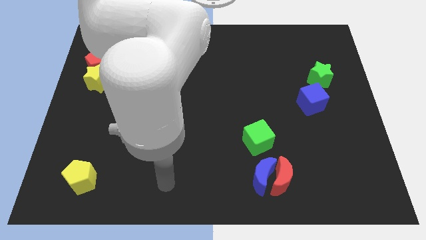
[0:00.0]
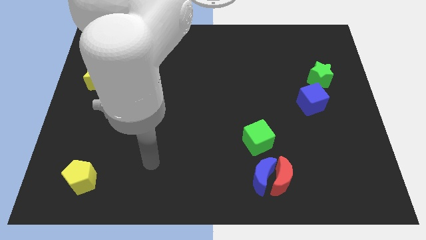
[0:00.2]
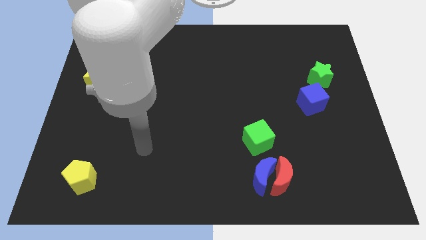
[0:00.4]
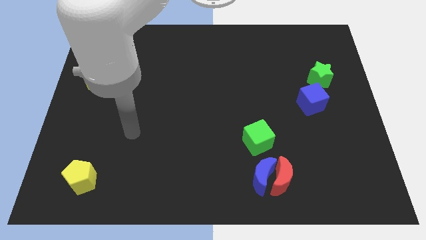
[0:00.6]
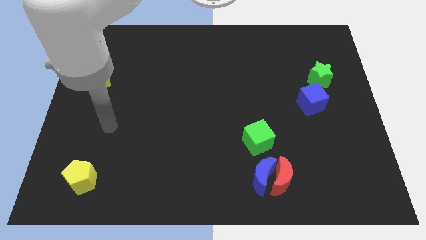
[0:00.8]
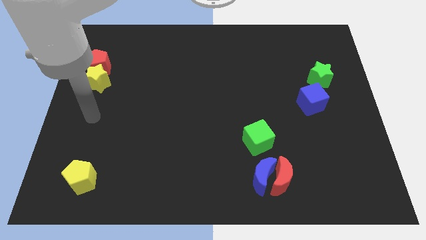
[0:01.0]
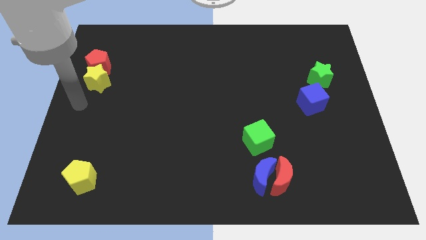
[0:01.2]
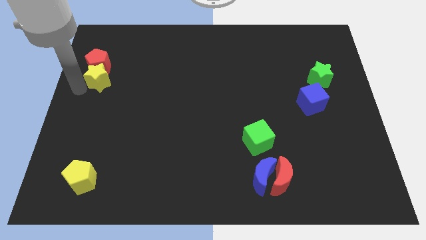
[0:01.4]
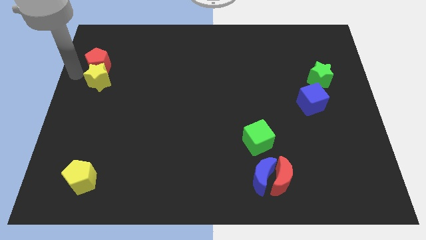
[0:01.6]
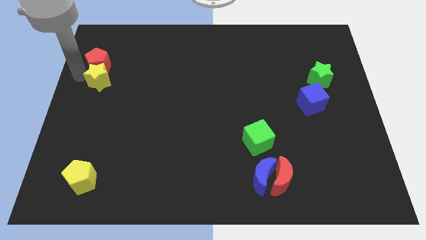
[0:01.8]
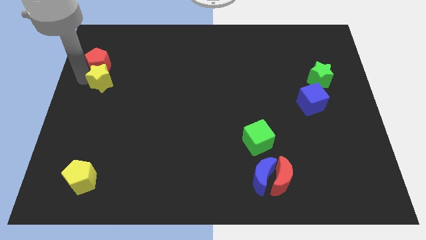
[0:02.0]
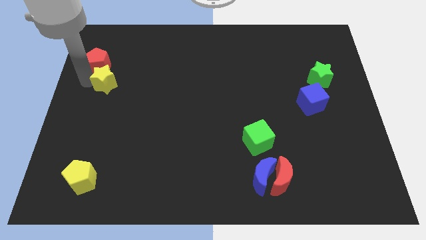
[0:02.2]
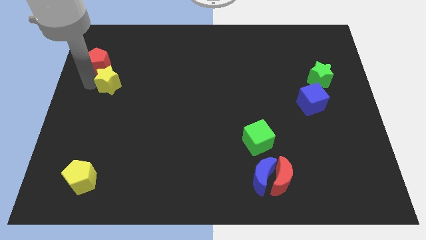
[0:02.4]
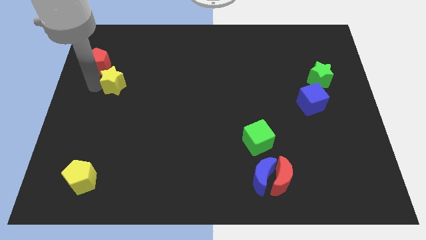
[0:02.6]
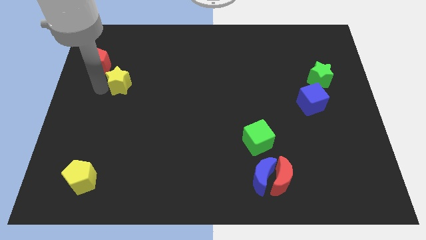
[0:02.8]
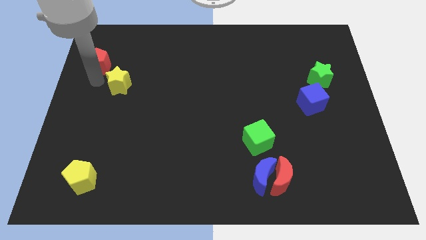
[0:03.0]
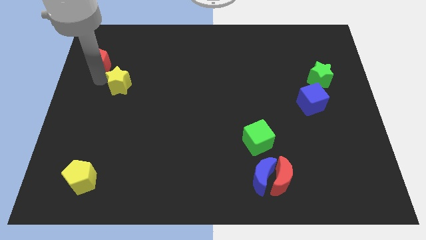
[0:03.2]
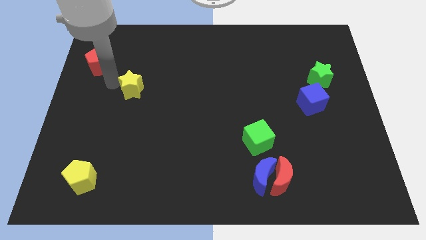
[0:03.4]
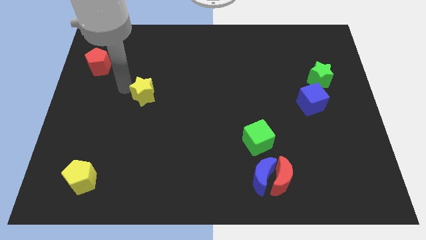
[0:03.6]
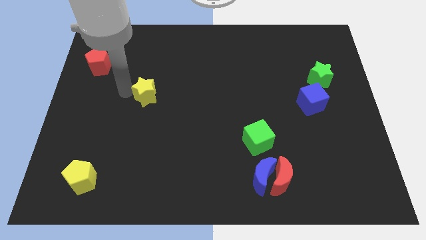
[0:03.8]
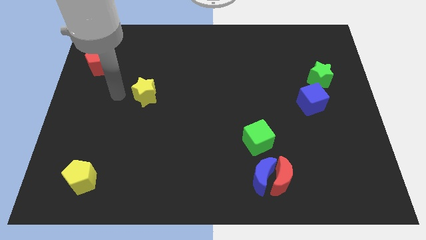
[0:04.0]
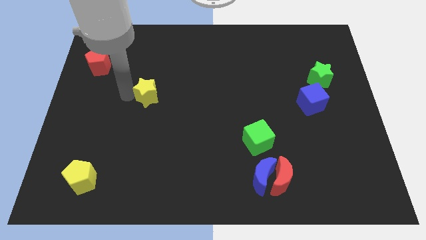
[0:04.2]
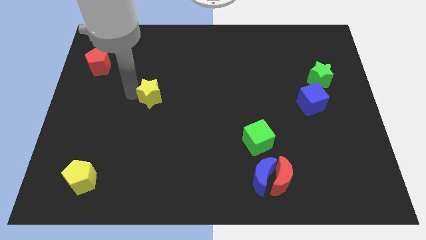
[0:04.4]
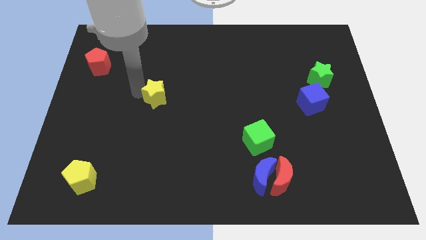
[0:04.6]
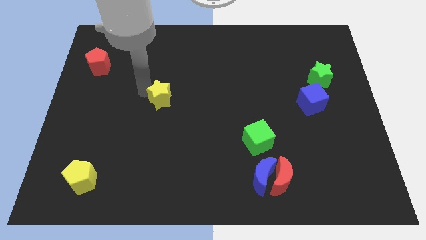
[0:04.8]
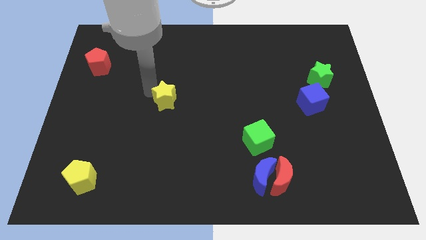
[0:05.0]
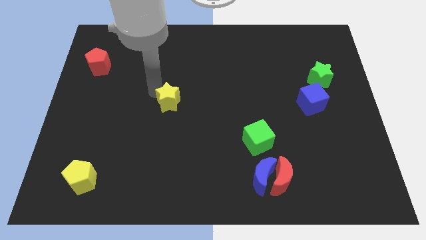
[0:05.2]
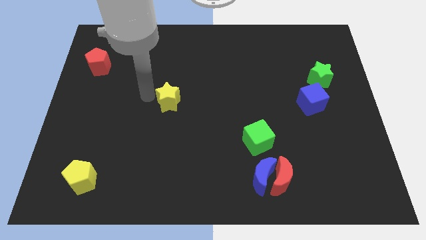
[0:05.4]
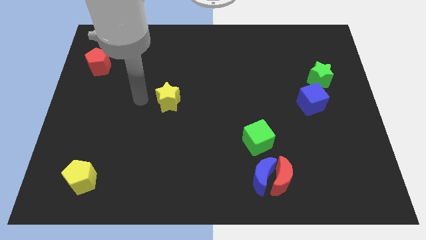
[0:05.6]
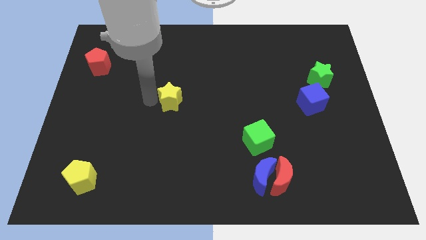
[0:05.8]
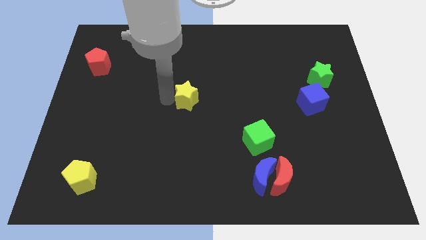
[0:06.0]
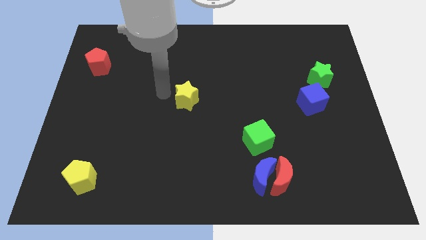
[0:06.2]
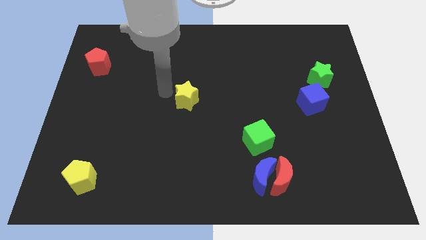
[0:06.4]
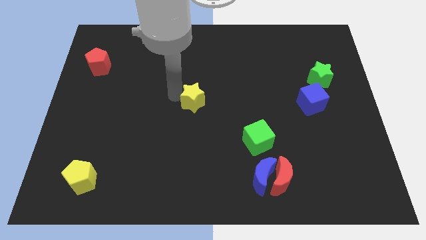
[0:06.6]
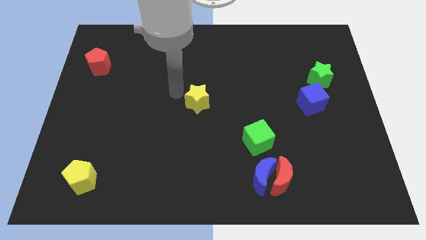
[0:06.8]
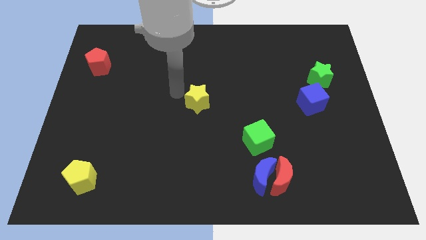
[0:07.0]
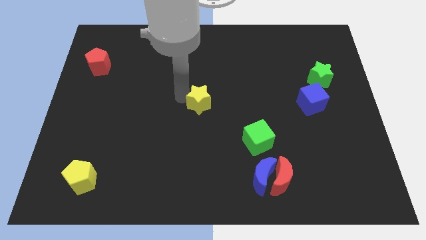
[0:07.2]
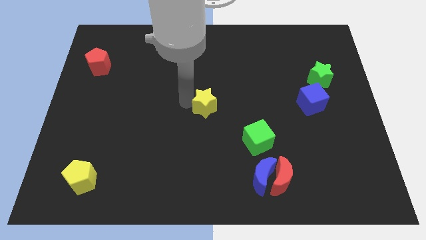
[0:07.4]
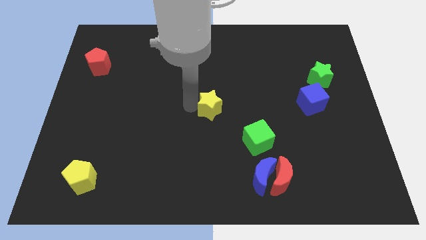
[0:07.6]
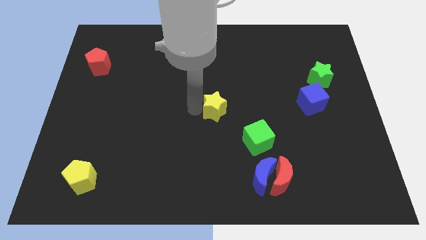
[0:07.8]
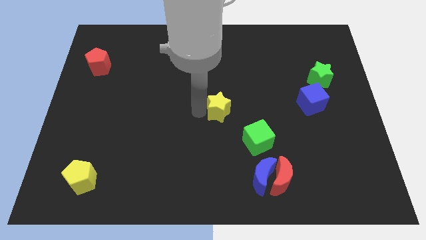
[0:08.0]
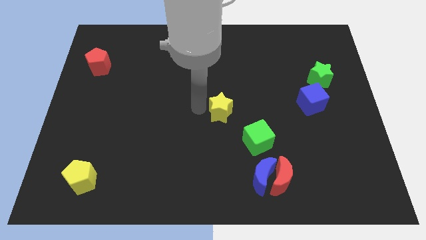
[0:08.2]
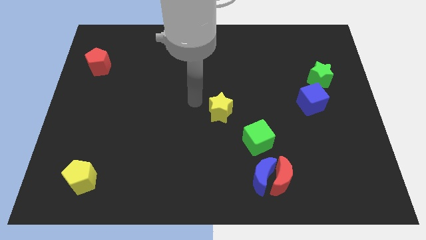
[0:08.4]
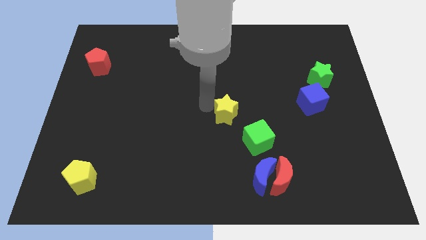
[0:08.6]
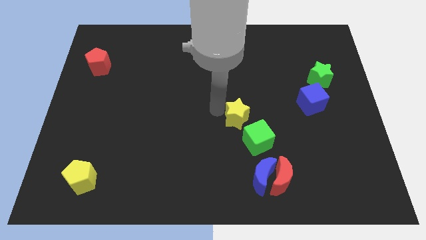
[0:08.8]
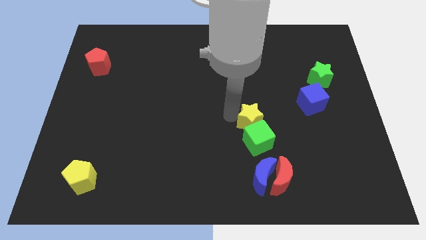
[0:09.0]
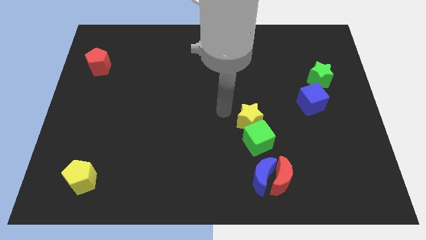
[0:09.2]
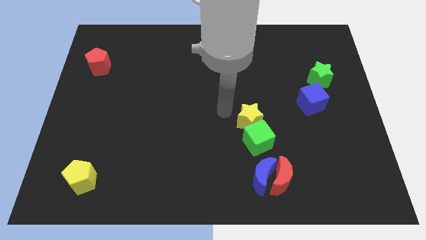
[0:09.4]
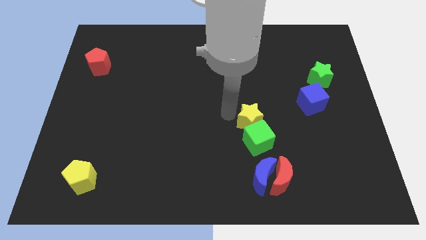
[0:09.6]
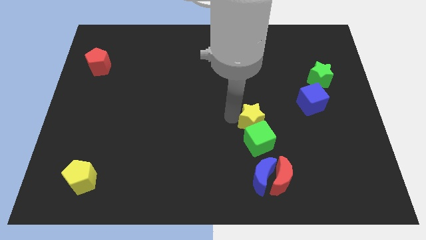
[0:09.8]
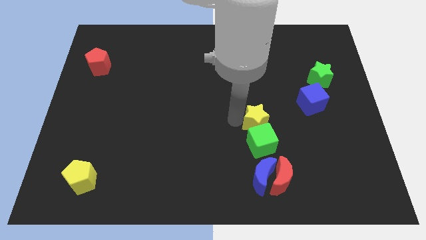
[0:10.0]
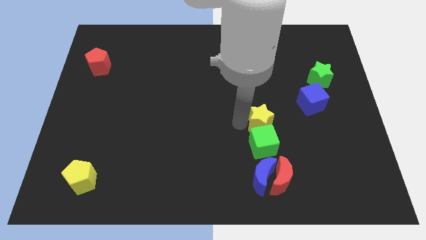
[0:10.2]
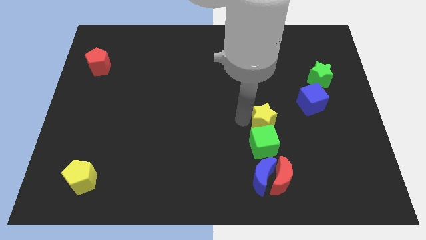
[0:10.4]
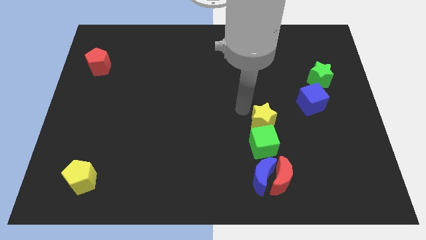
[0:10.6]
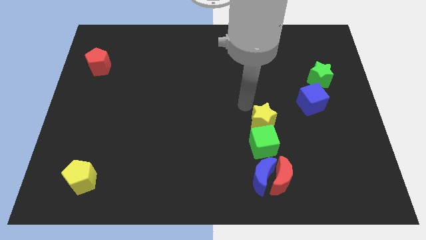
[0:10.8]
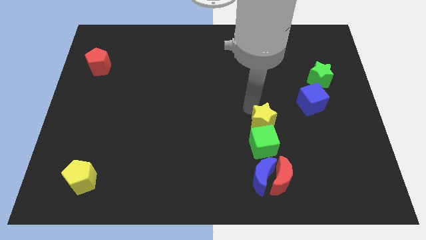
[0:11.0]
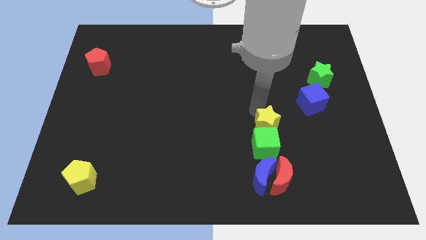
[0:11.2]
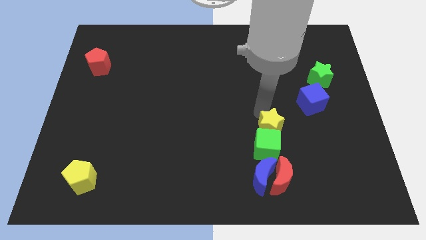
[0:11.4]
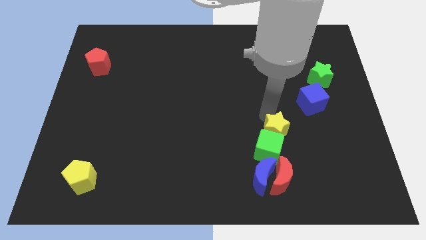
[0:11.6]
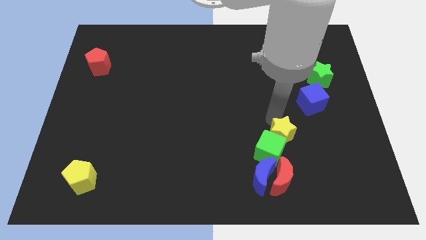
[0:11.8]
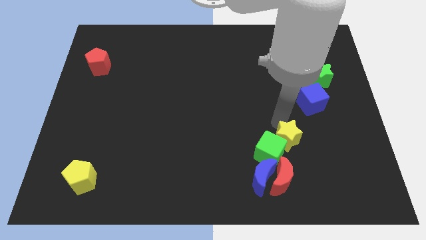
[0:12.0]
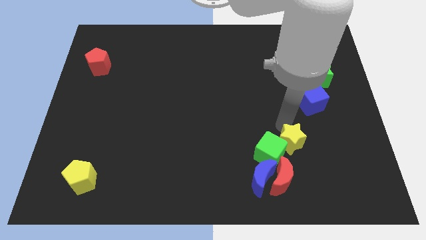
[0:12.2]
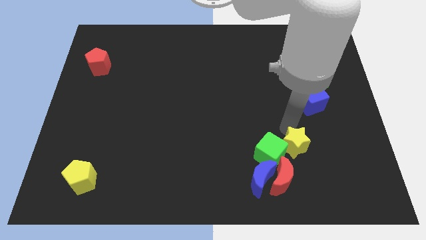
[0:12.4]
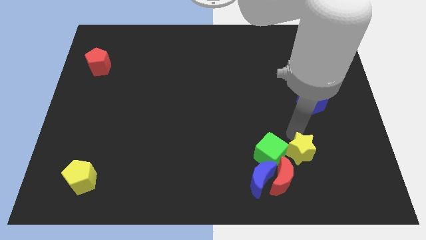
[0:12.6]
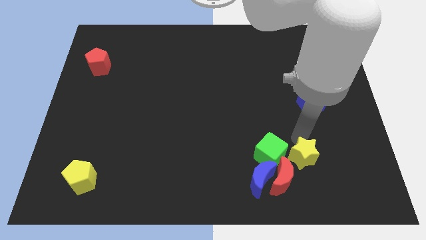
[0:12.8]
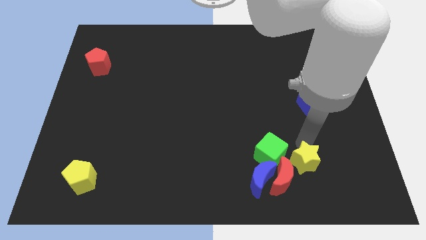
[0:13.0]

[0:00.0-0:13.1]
slide the yellow star to the right of the blue moon

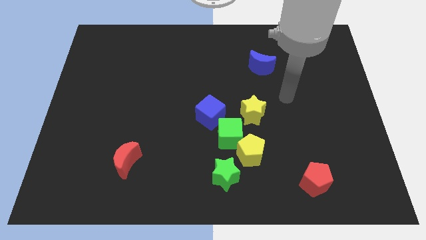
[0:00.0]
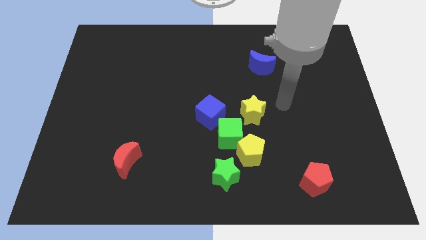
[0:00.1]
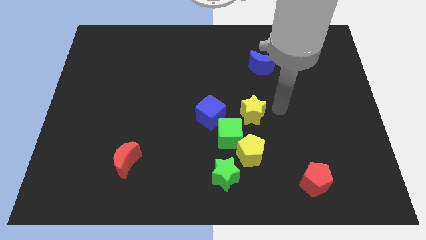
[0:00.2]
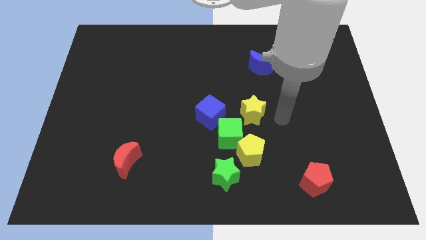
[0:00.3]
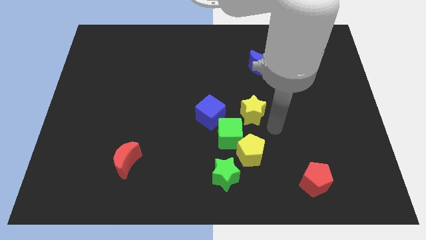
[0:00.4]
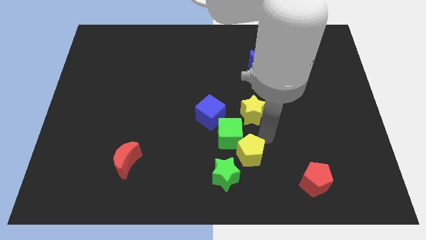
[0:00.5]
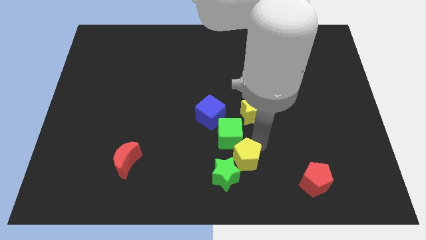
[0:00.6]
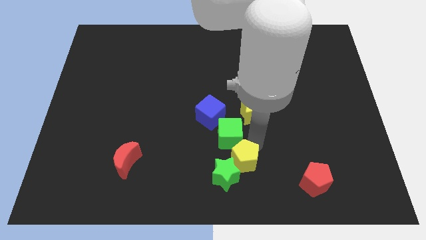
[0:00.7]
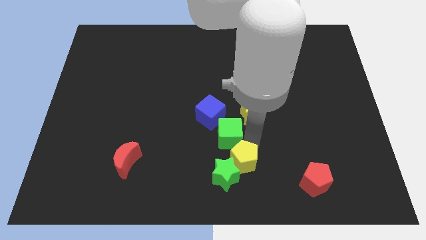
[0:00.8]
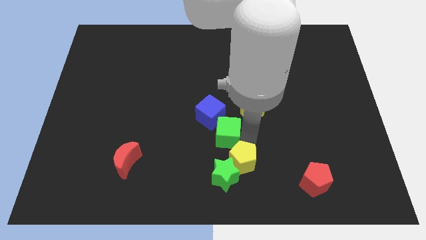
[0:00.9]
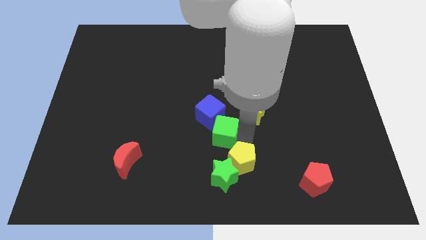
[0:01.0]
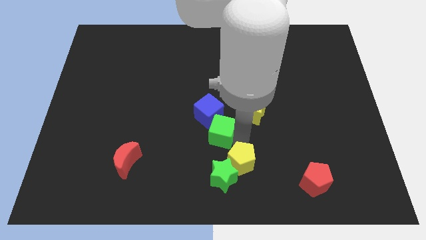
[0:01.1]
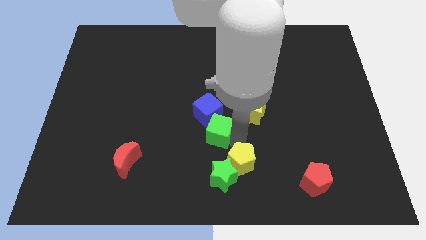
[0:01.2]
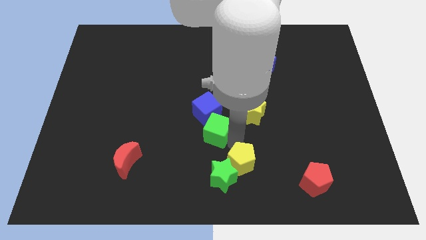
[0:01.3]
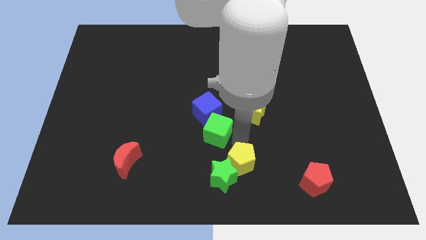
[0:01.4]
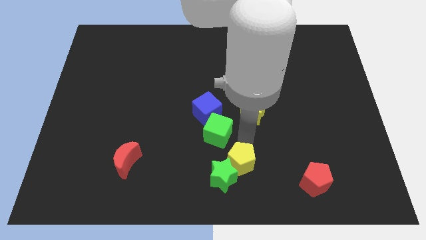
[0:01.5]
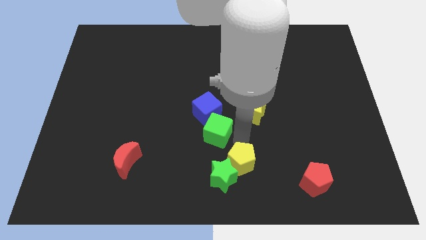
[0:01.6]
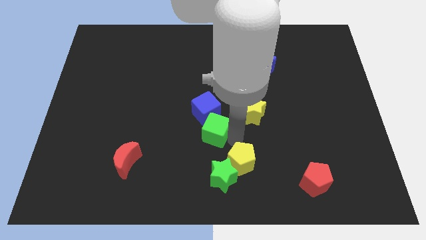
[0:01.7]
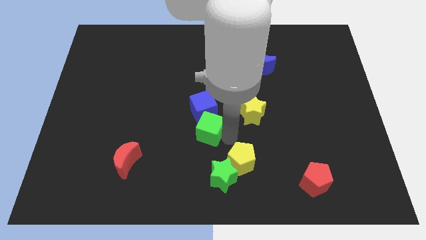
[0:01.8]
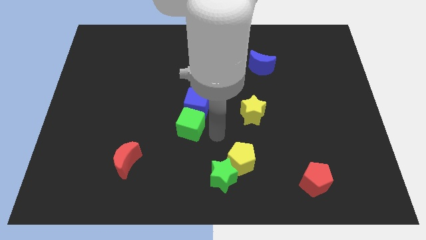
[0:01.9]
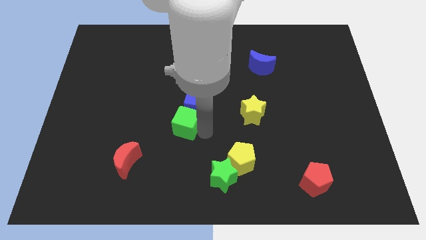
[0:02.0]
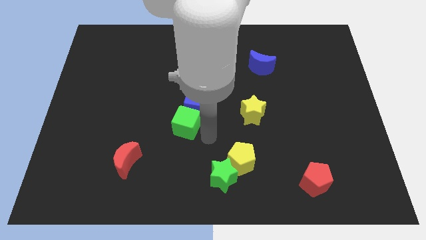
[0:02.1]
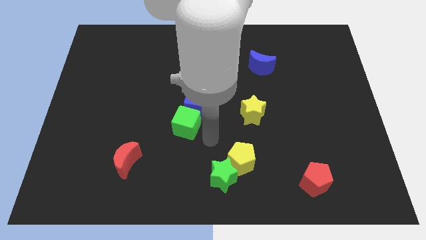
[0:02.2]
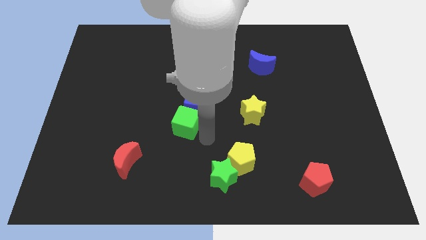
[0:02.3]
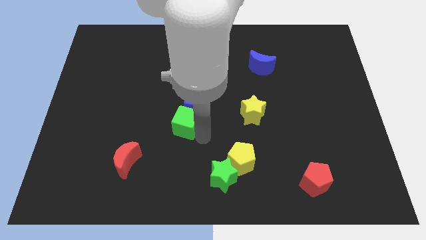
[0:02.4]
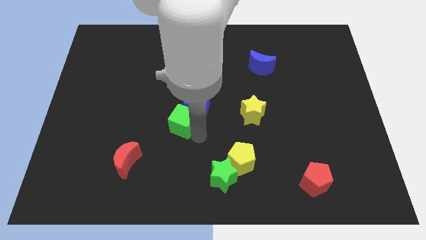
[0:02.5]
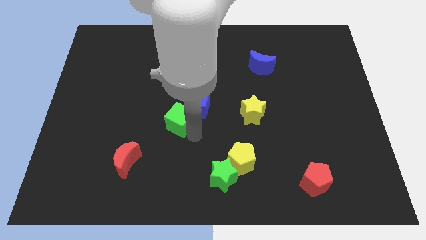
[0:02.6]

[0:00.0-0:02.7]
push the green cube left of the blue cube
